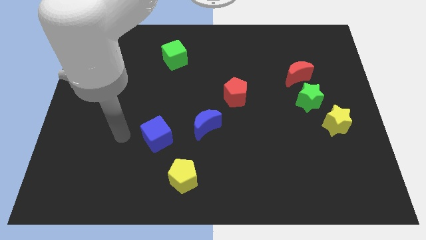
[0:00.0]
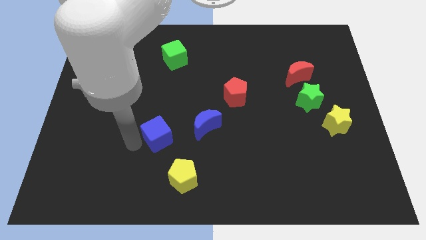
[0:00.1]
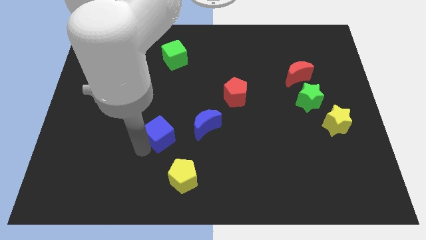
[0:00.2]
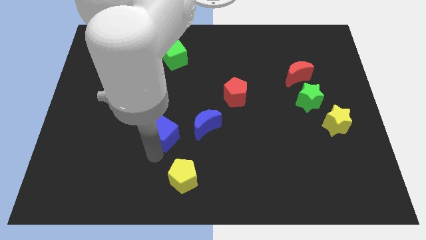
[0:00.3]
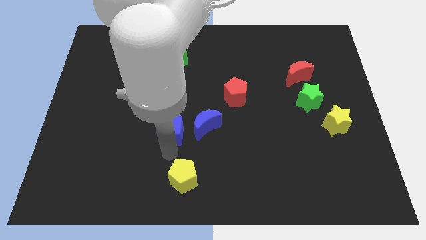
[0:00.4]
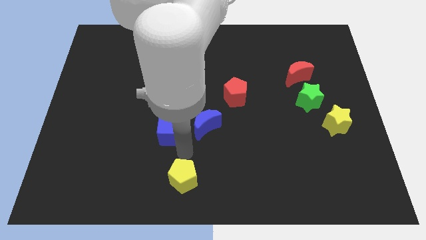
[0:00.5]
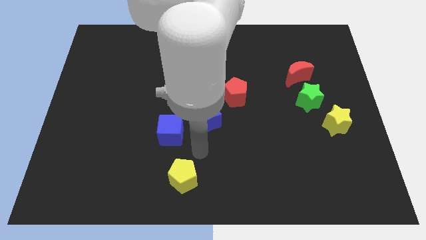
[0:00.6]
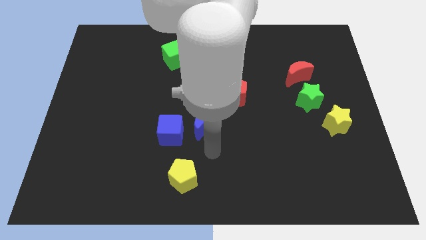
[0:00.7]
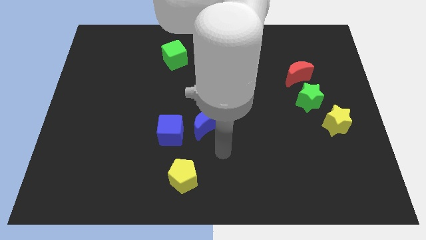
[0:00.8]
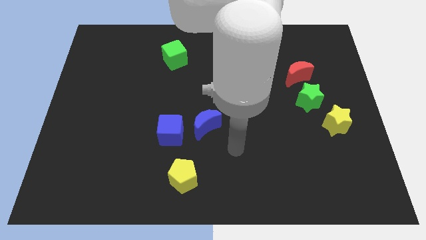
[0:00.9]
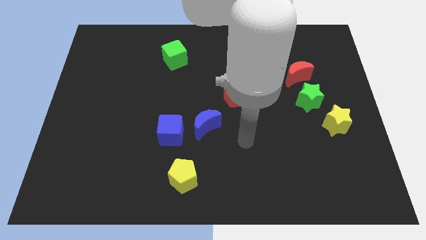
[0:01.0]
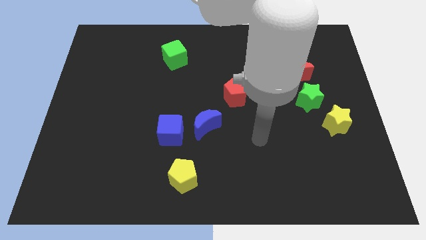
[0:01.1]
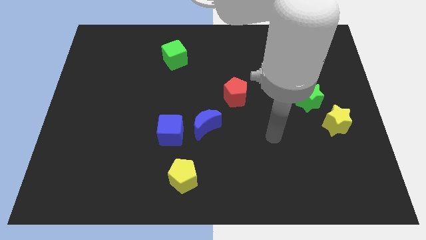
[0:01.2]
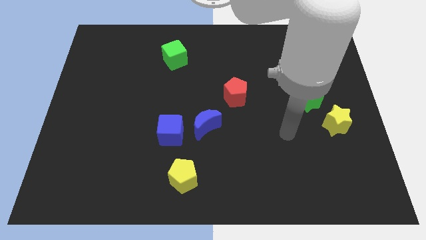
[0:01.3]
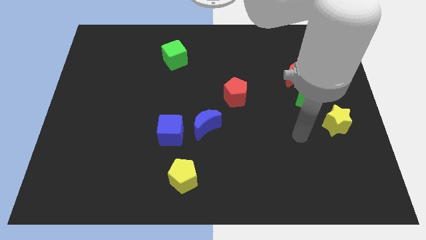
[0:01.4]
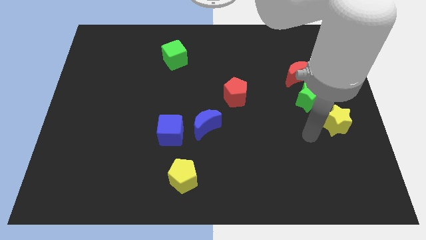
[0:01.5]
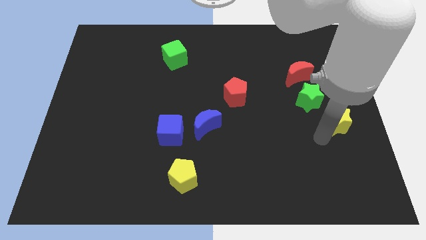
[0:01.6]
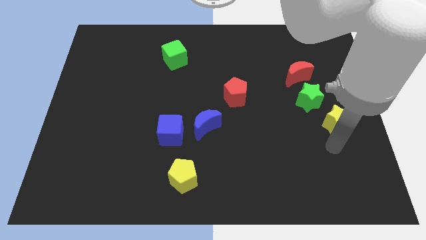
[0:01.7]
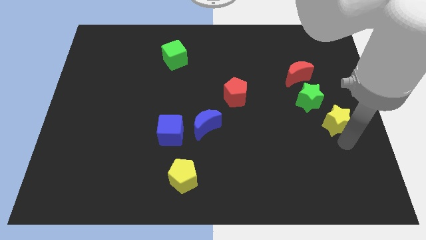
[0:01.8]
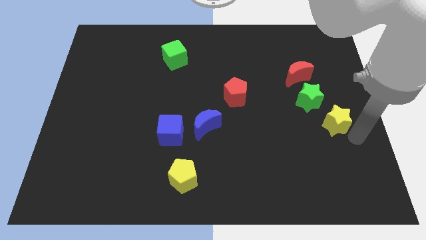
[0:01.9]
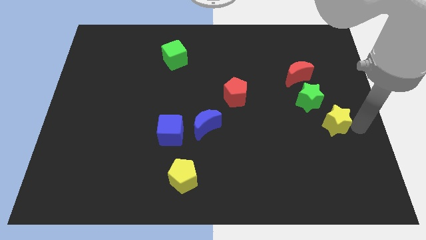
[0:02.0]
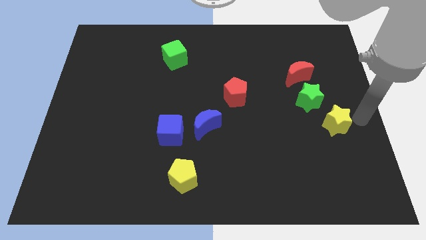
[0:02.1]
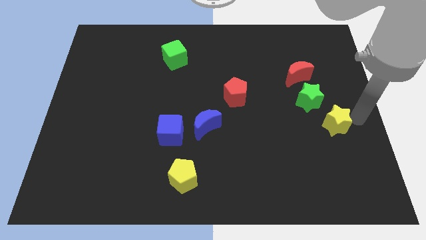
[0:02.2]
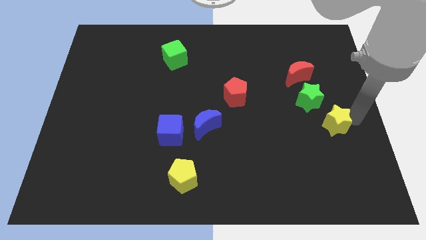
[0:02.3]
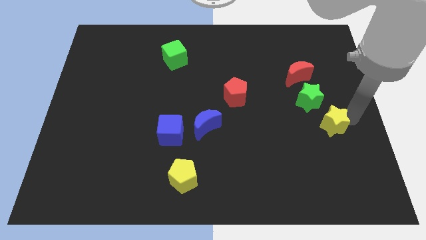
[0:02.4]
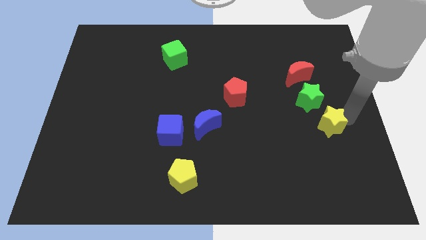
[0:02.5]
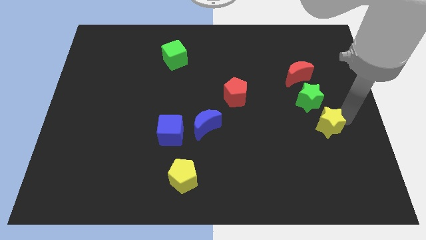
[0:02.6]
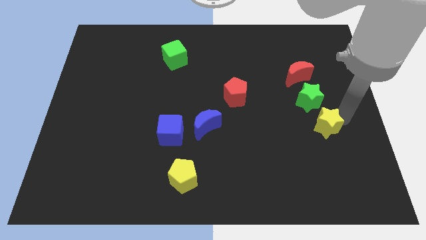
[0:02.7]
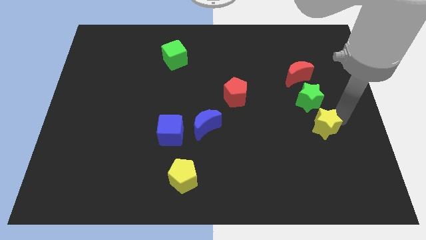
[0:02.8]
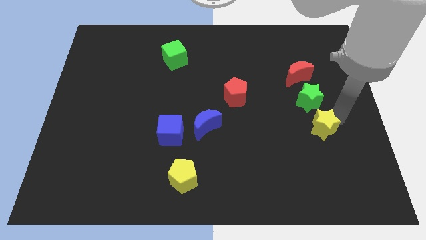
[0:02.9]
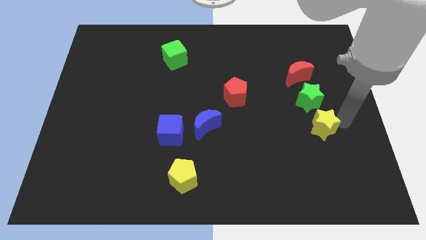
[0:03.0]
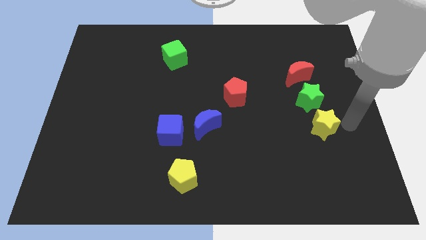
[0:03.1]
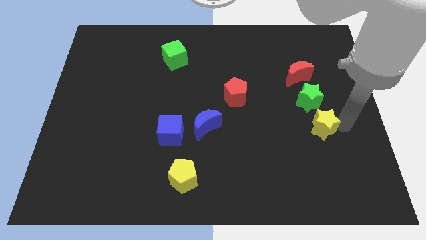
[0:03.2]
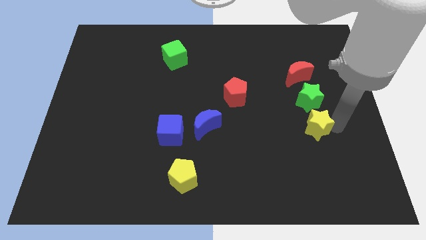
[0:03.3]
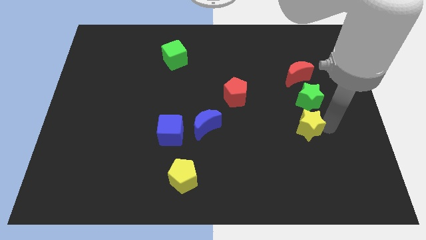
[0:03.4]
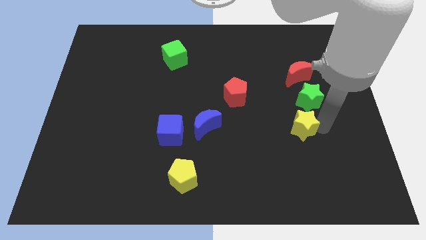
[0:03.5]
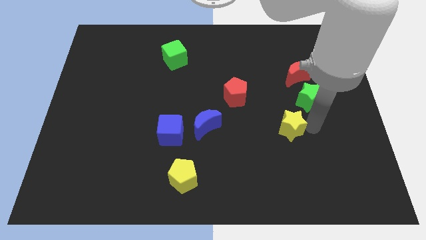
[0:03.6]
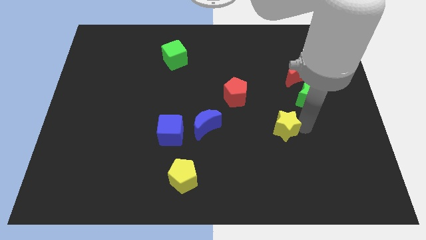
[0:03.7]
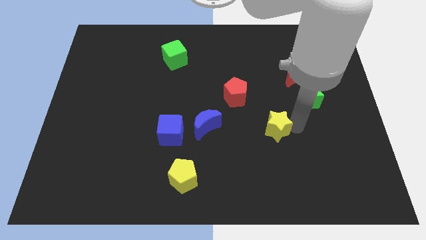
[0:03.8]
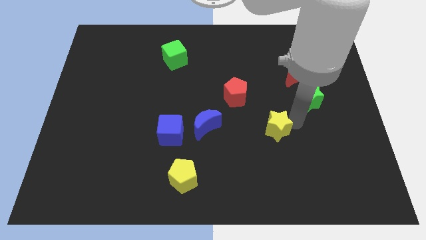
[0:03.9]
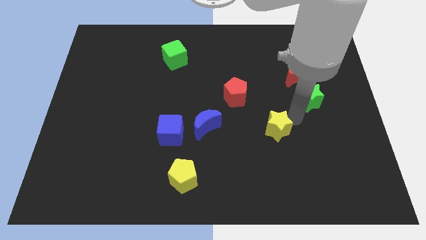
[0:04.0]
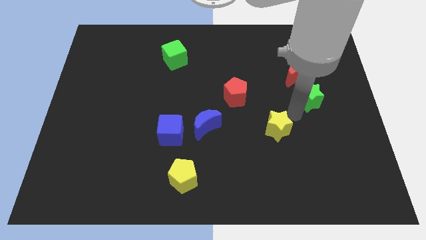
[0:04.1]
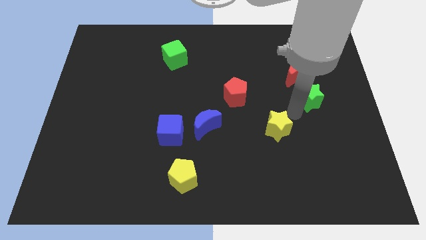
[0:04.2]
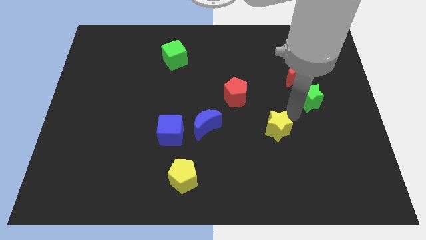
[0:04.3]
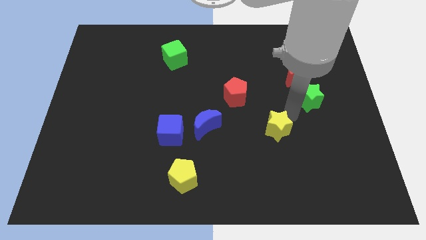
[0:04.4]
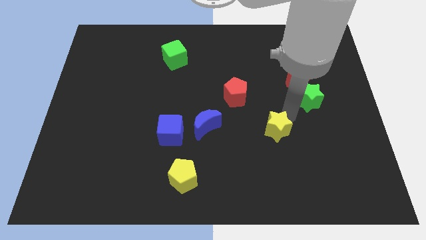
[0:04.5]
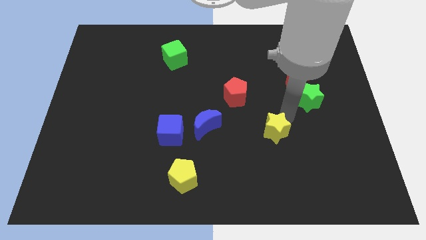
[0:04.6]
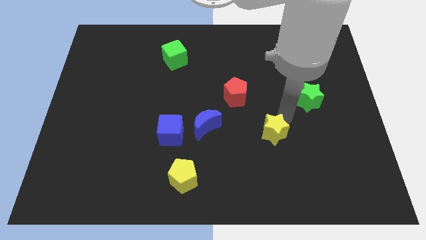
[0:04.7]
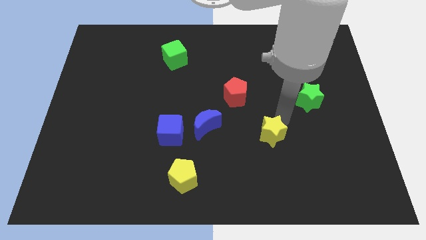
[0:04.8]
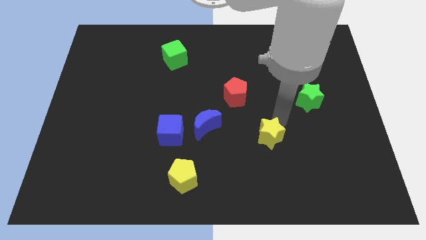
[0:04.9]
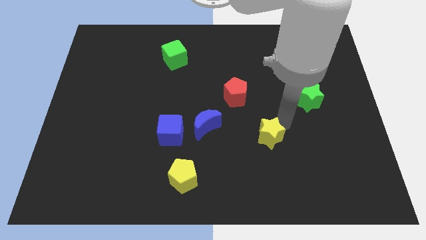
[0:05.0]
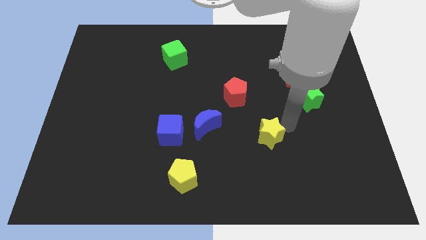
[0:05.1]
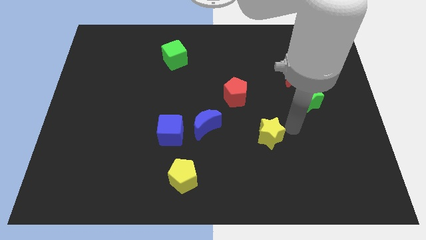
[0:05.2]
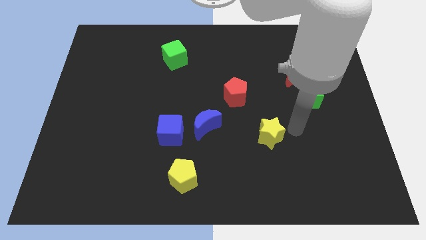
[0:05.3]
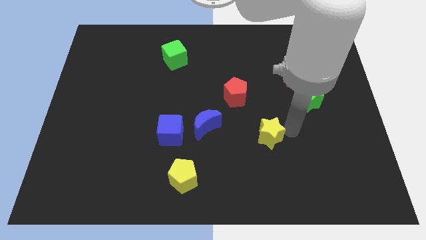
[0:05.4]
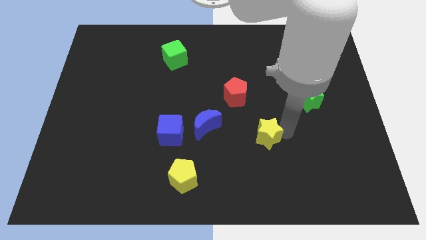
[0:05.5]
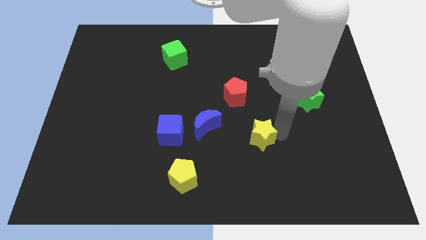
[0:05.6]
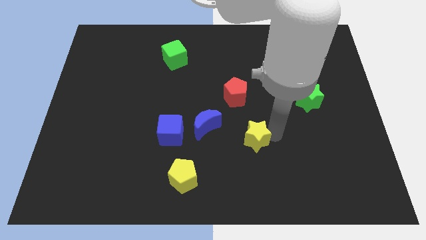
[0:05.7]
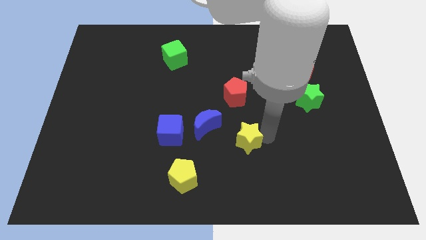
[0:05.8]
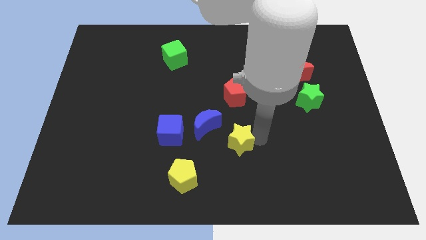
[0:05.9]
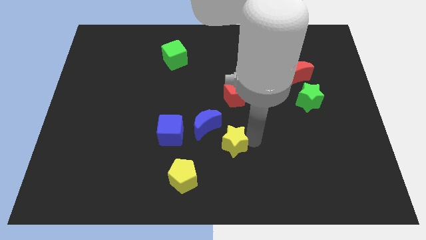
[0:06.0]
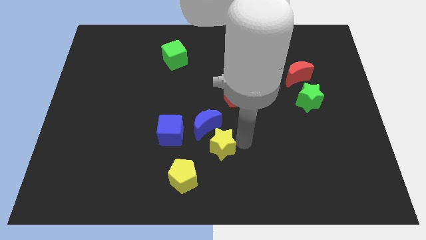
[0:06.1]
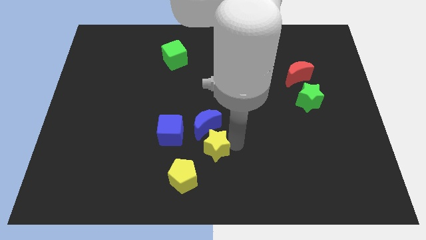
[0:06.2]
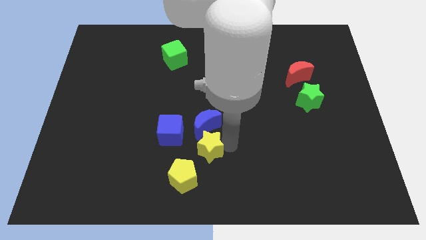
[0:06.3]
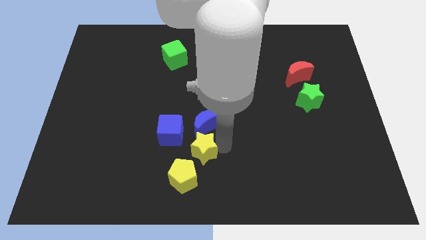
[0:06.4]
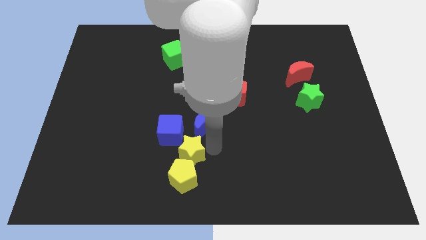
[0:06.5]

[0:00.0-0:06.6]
slide the yellow star to the bottom side of the blue cube
